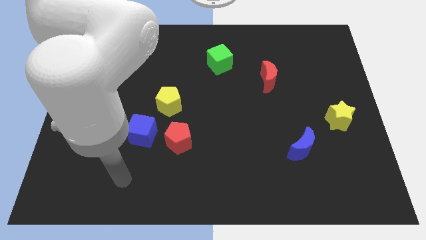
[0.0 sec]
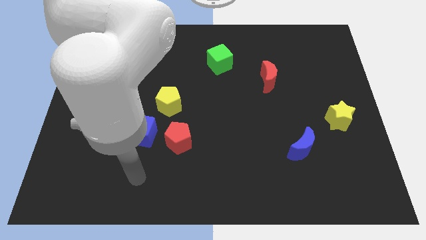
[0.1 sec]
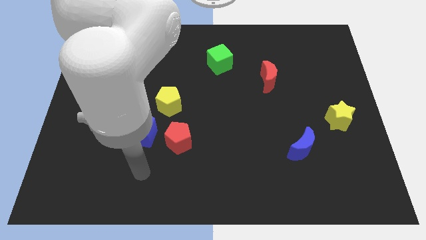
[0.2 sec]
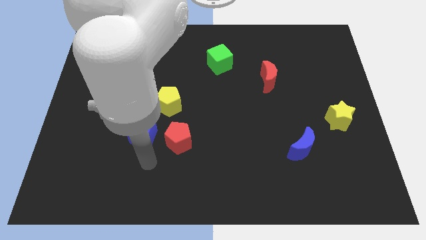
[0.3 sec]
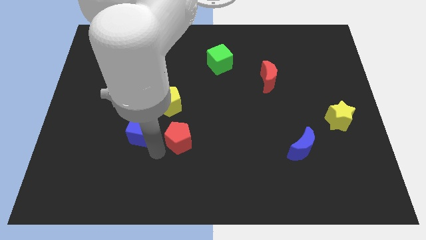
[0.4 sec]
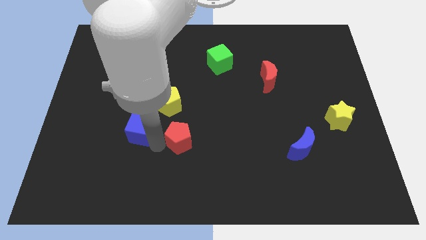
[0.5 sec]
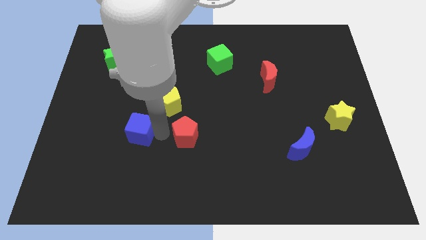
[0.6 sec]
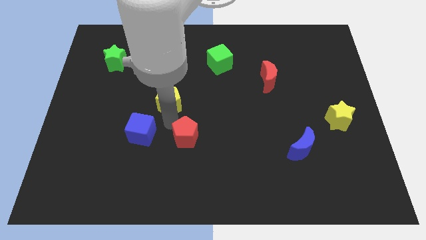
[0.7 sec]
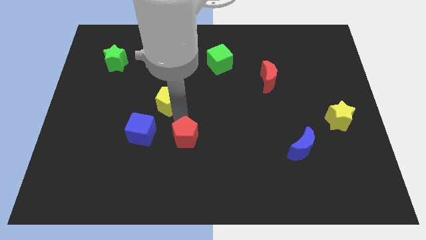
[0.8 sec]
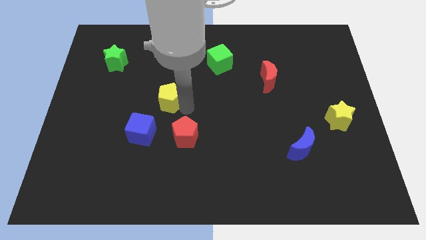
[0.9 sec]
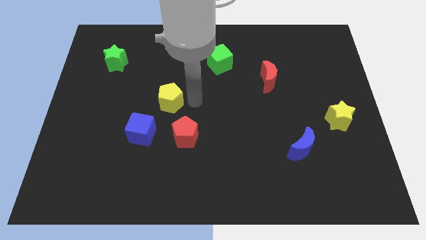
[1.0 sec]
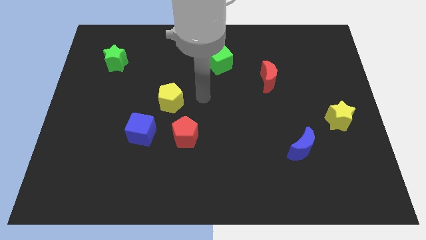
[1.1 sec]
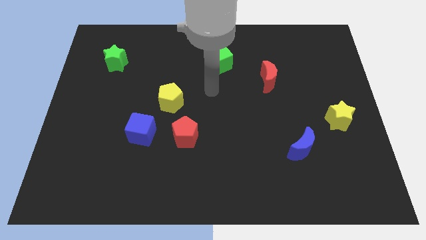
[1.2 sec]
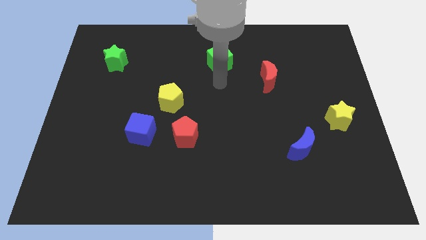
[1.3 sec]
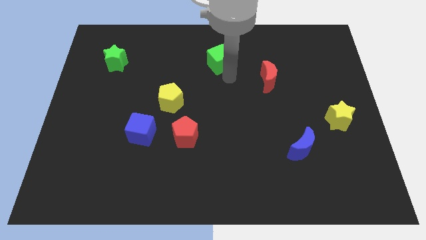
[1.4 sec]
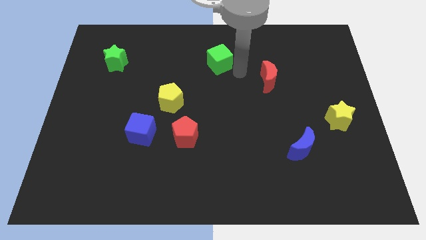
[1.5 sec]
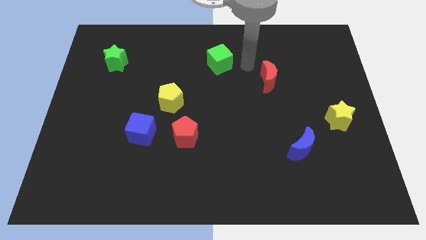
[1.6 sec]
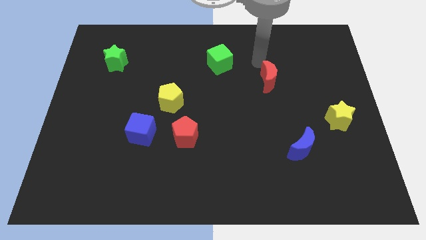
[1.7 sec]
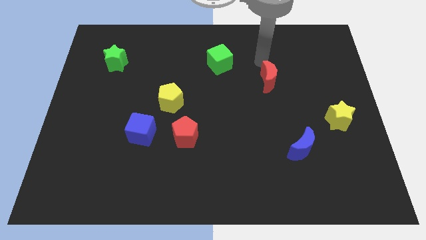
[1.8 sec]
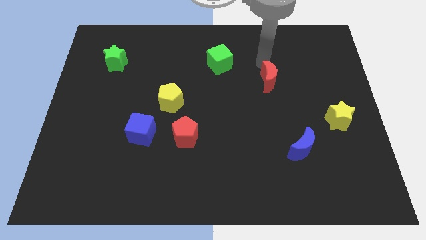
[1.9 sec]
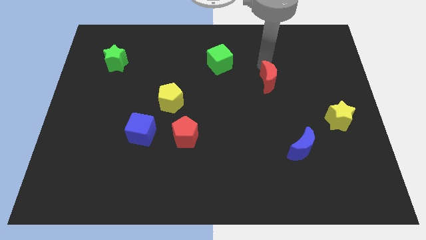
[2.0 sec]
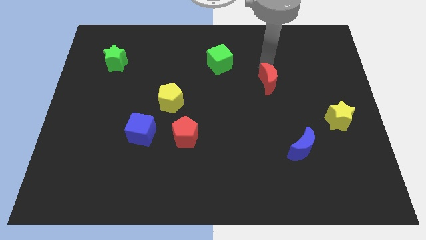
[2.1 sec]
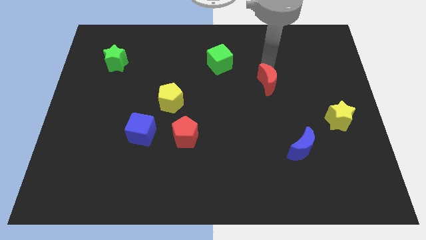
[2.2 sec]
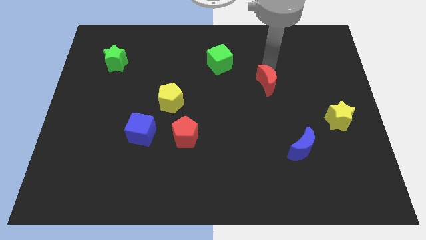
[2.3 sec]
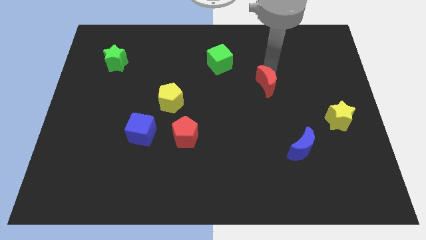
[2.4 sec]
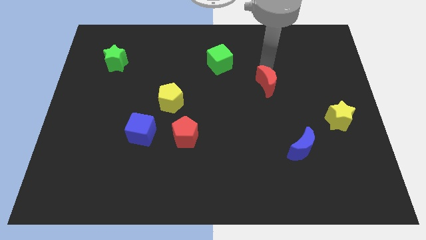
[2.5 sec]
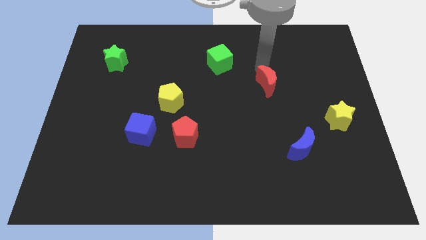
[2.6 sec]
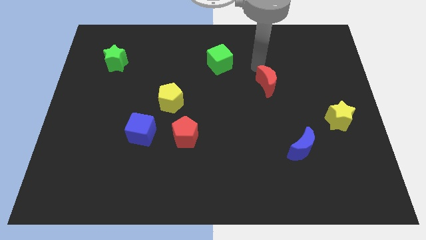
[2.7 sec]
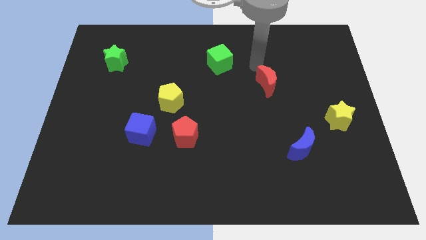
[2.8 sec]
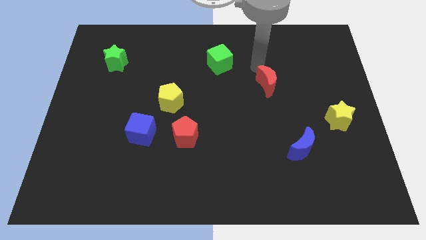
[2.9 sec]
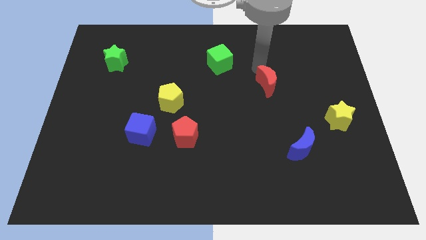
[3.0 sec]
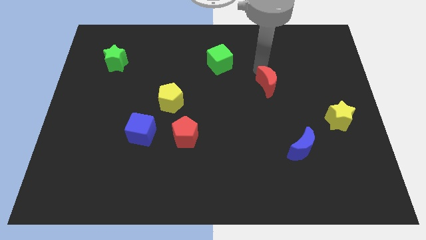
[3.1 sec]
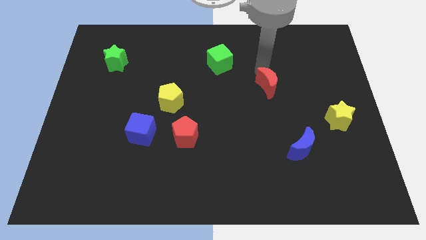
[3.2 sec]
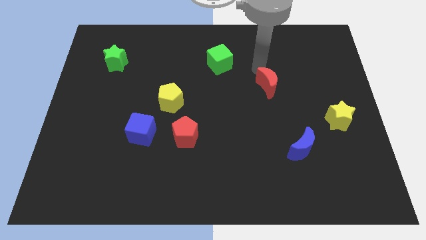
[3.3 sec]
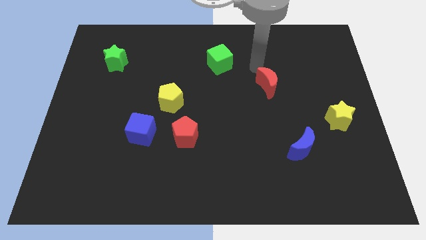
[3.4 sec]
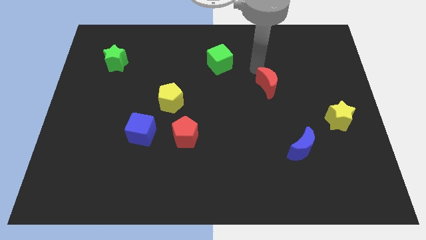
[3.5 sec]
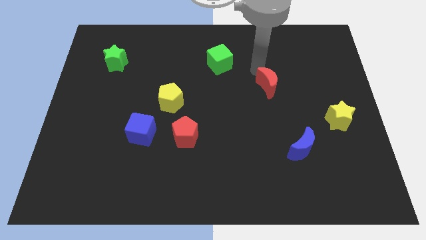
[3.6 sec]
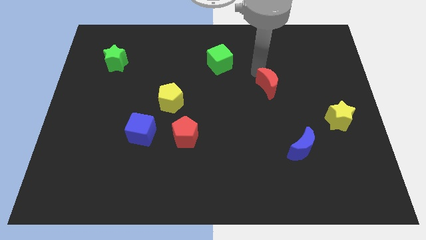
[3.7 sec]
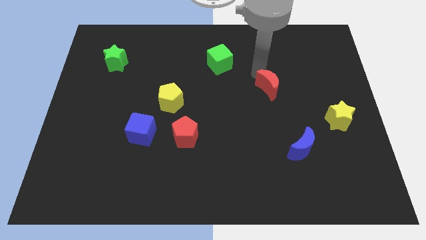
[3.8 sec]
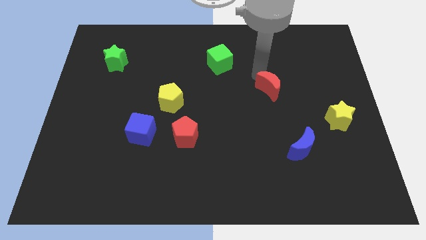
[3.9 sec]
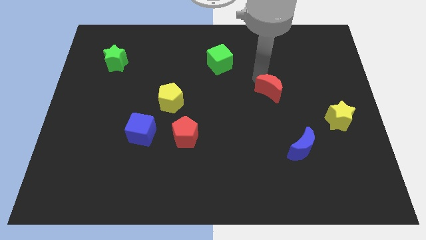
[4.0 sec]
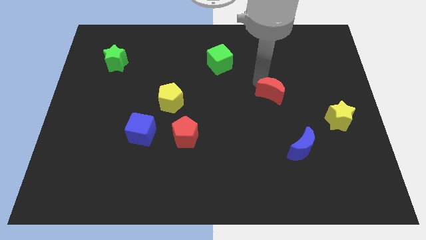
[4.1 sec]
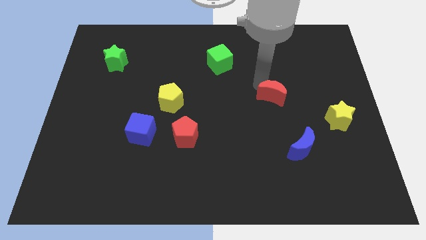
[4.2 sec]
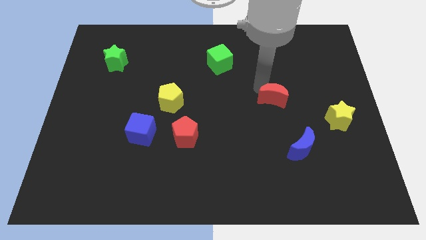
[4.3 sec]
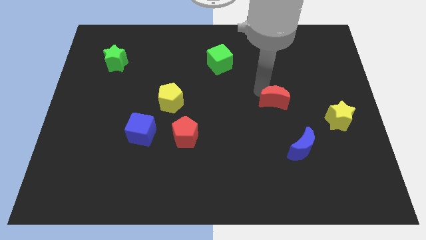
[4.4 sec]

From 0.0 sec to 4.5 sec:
move the red moon downwards slightly

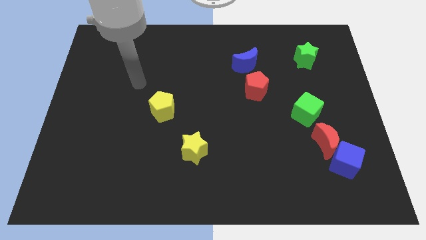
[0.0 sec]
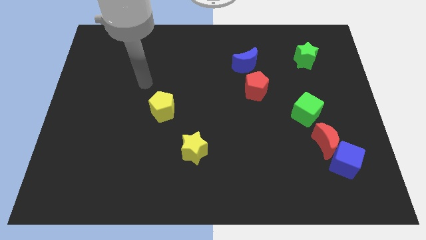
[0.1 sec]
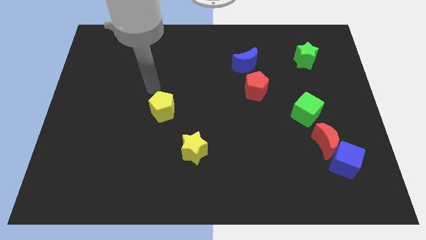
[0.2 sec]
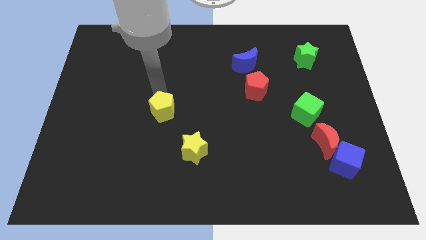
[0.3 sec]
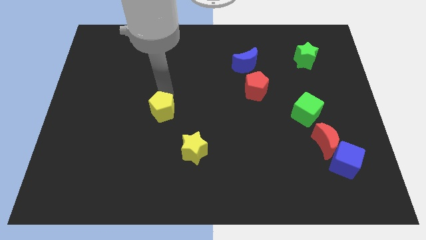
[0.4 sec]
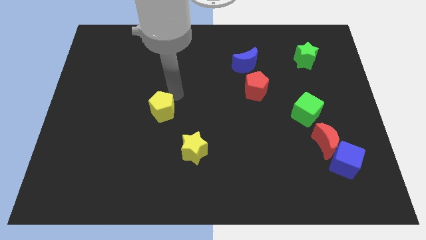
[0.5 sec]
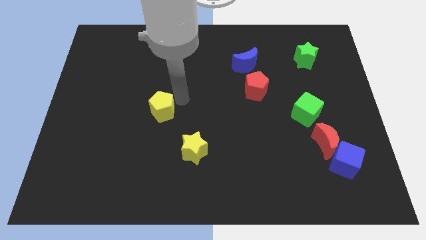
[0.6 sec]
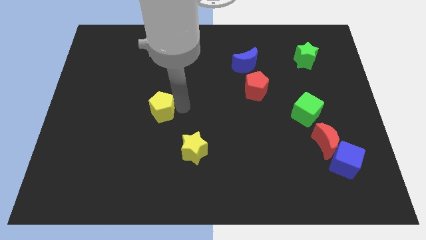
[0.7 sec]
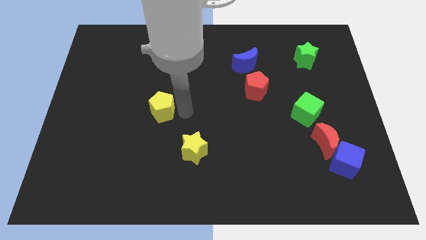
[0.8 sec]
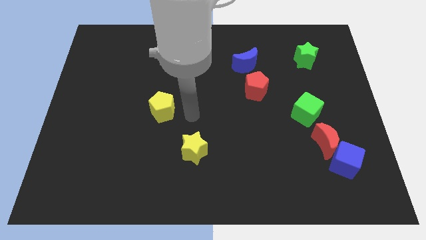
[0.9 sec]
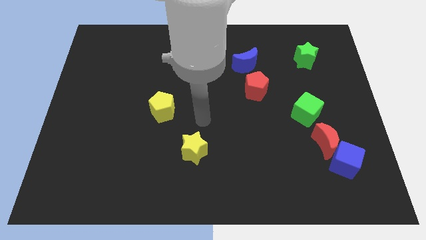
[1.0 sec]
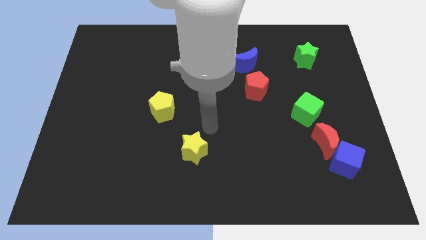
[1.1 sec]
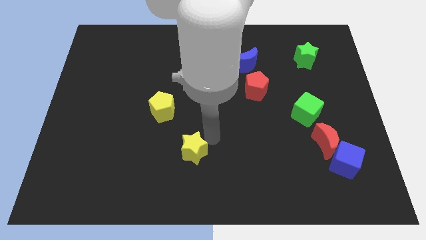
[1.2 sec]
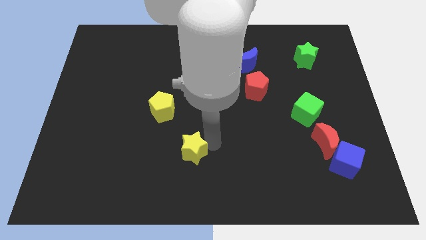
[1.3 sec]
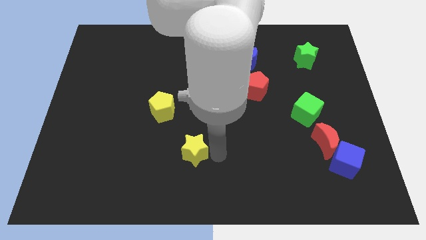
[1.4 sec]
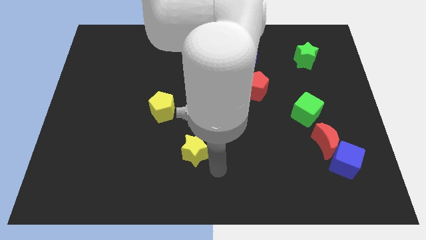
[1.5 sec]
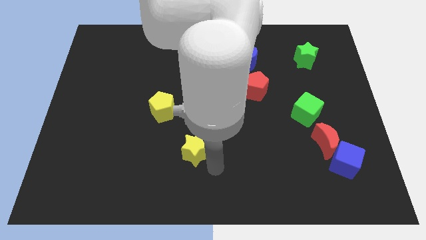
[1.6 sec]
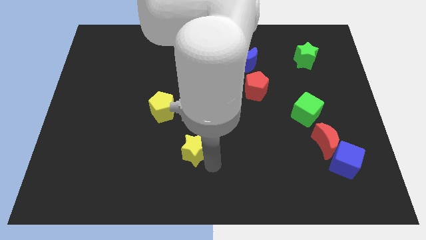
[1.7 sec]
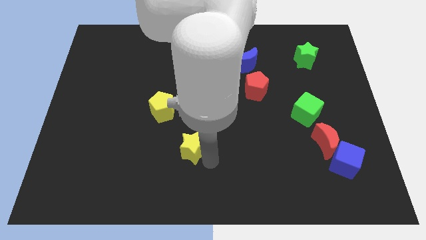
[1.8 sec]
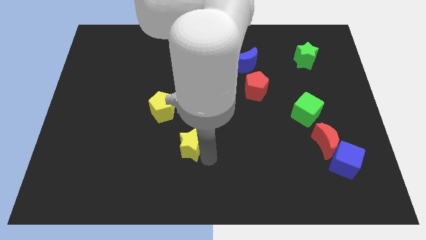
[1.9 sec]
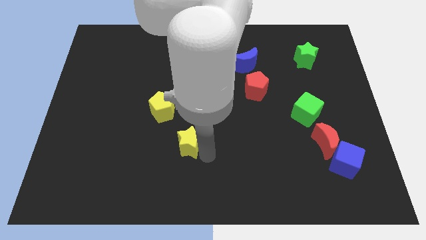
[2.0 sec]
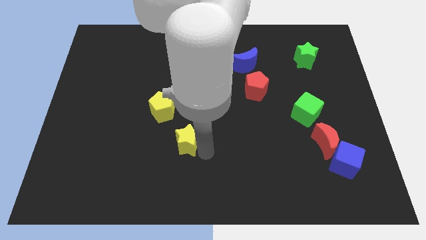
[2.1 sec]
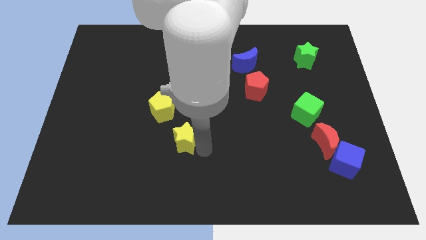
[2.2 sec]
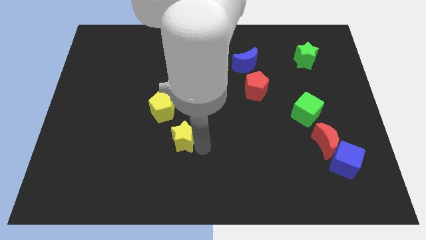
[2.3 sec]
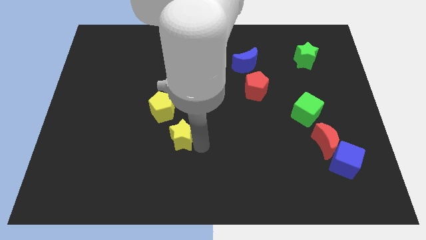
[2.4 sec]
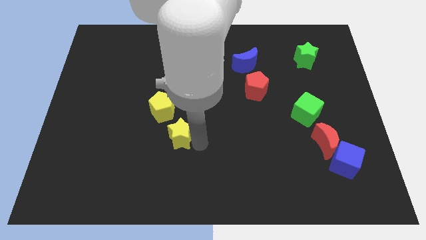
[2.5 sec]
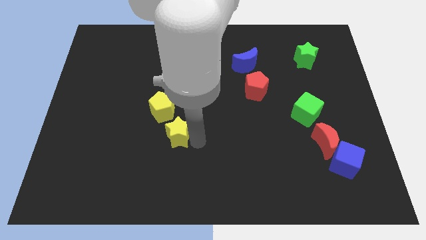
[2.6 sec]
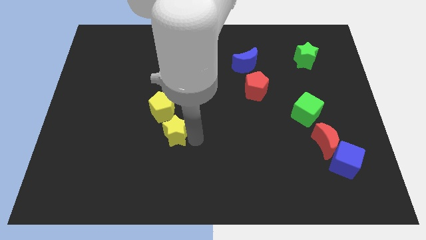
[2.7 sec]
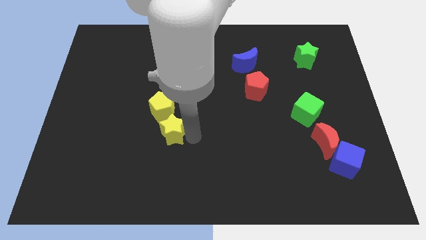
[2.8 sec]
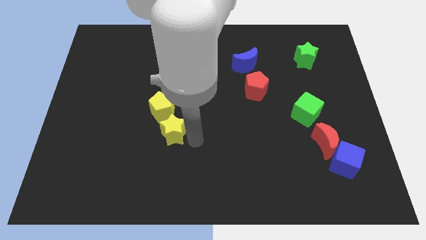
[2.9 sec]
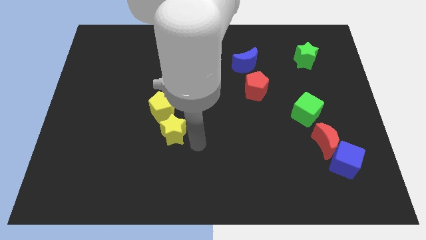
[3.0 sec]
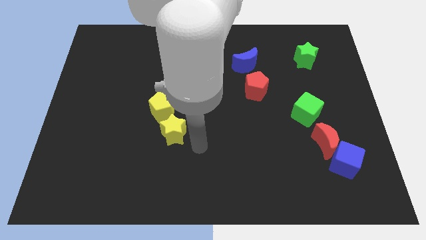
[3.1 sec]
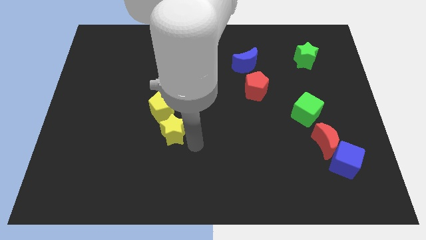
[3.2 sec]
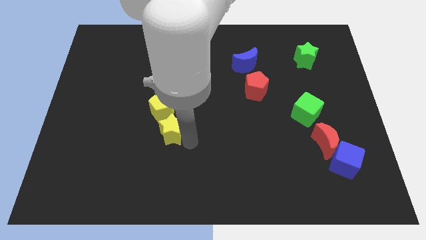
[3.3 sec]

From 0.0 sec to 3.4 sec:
slide the yellow star somewhat up and to the left diagonally
